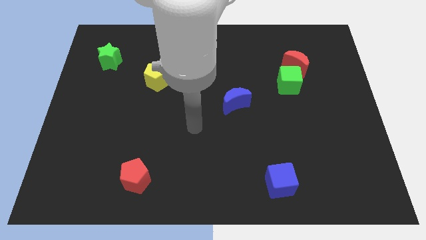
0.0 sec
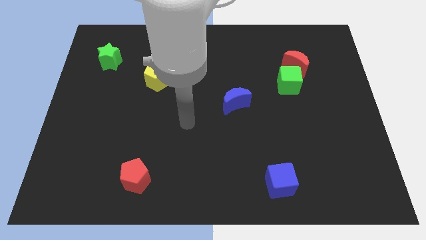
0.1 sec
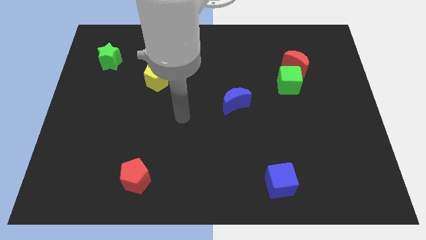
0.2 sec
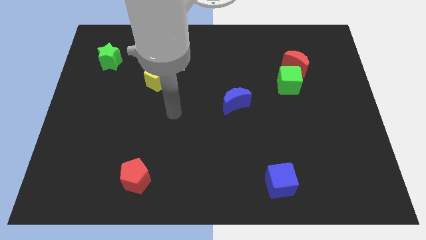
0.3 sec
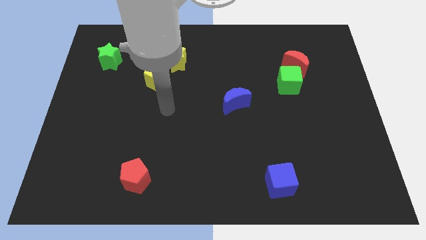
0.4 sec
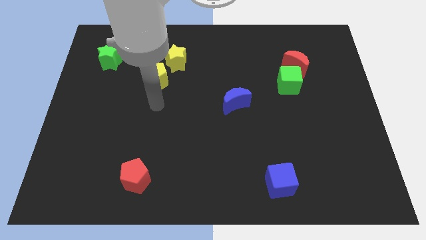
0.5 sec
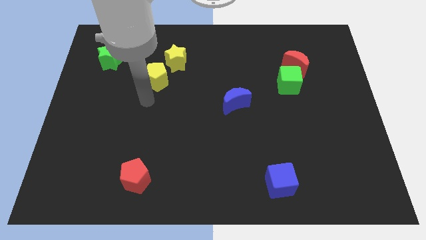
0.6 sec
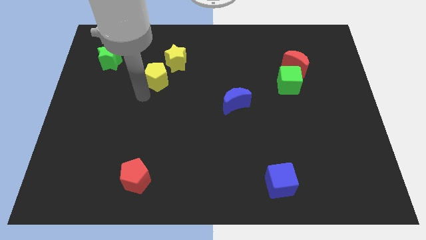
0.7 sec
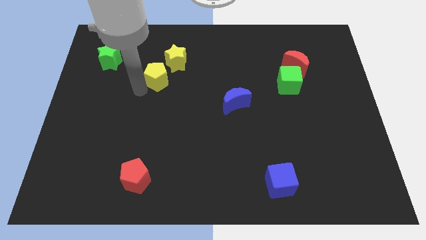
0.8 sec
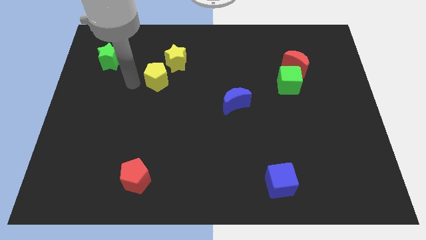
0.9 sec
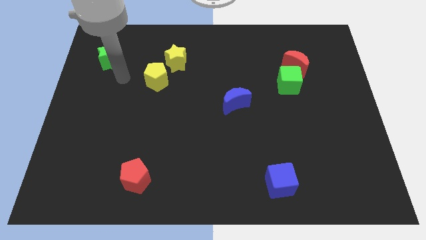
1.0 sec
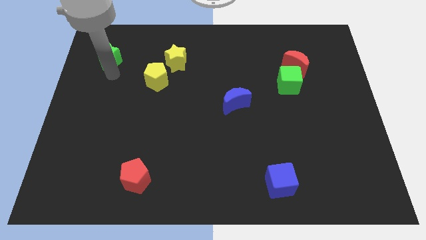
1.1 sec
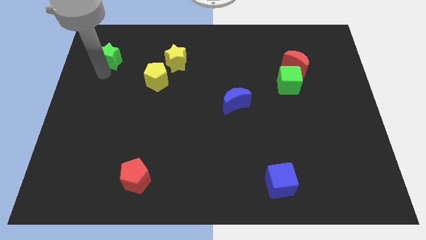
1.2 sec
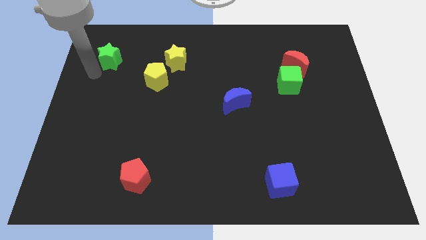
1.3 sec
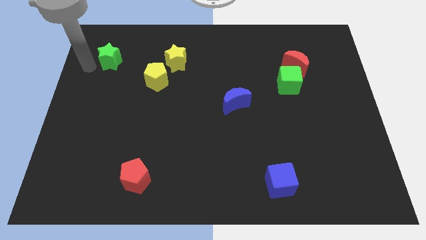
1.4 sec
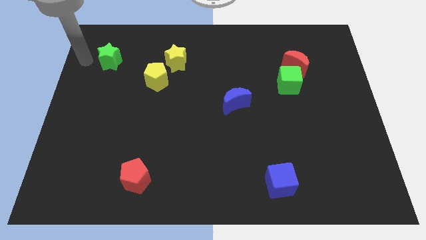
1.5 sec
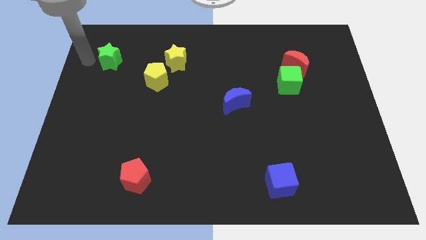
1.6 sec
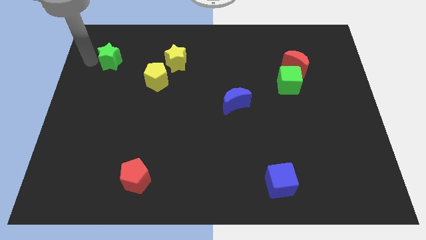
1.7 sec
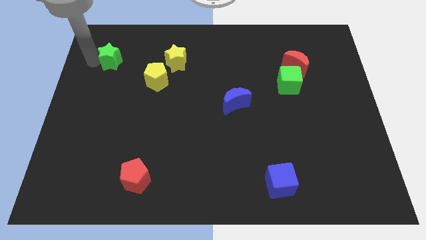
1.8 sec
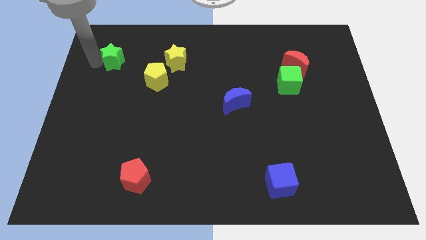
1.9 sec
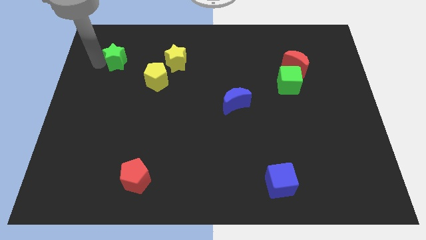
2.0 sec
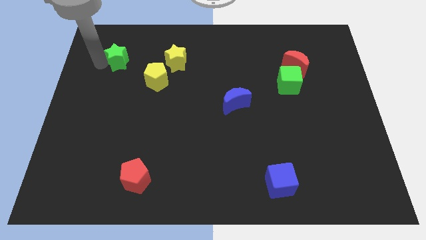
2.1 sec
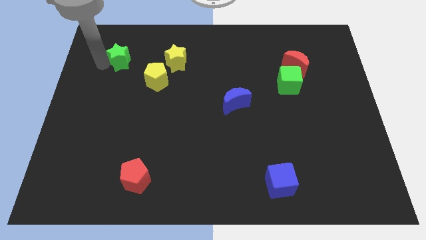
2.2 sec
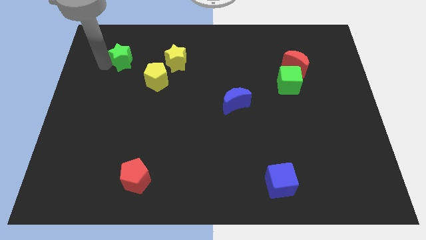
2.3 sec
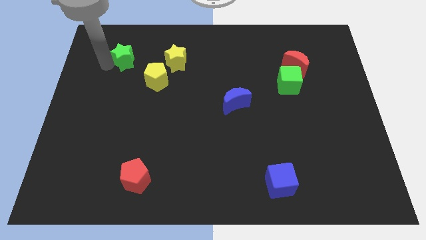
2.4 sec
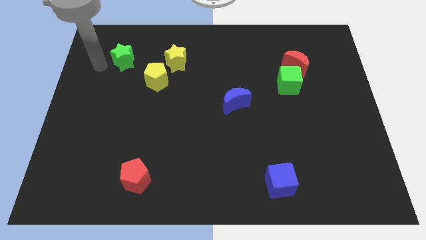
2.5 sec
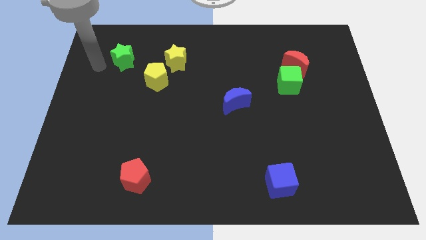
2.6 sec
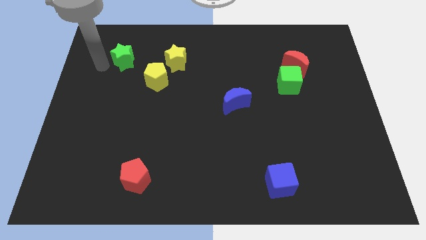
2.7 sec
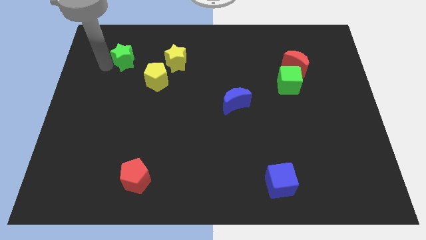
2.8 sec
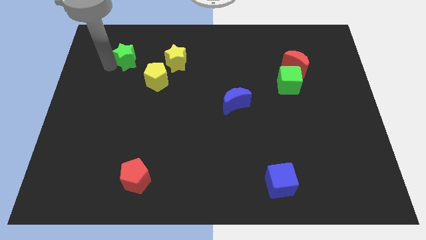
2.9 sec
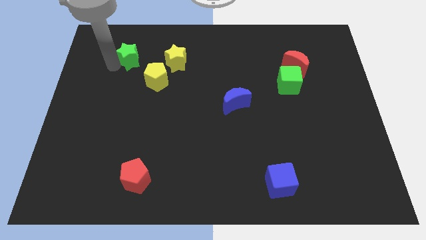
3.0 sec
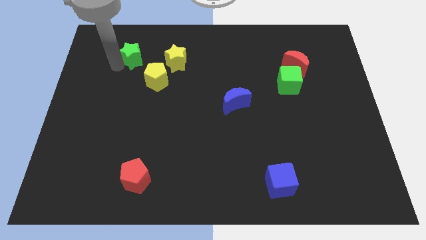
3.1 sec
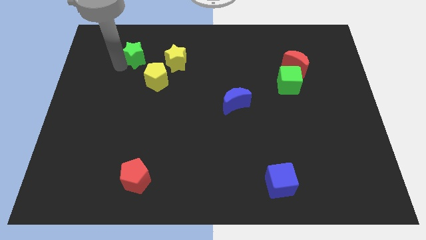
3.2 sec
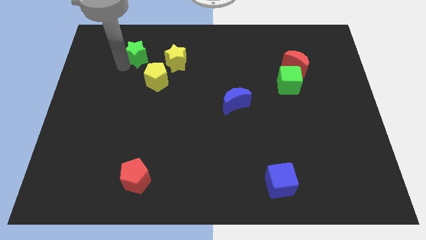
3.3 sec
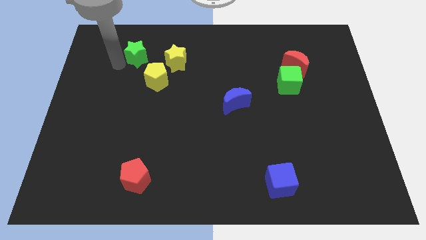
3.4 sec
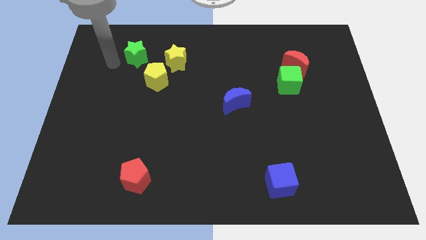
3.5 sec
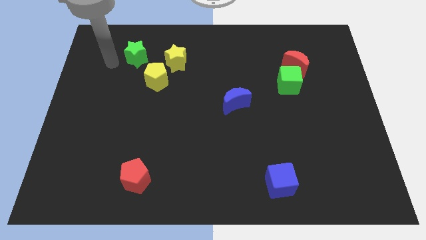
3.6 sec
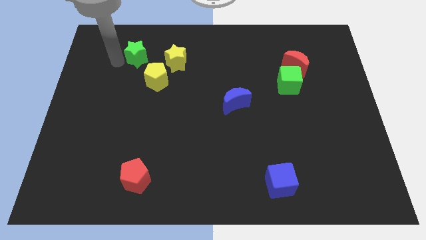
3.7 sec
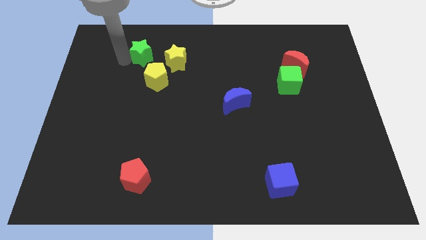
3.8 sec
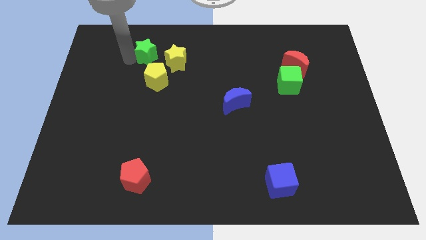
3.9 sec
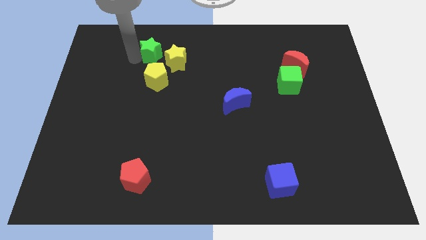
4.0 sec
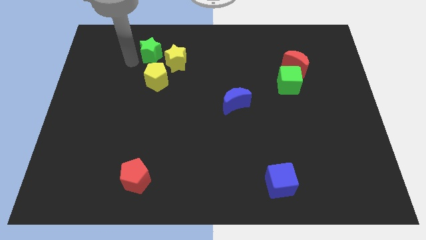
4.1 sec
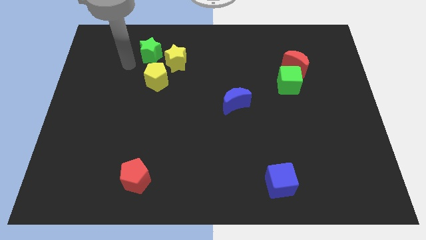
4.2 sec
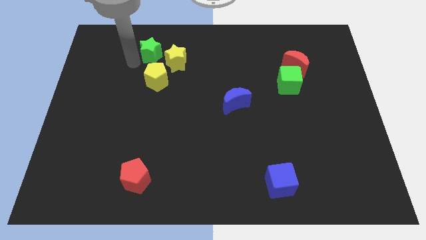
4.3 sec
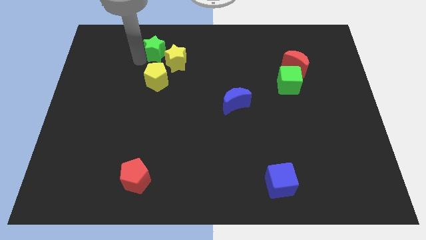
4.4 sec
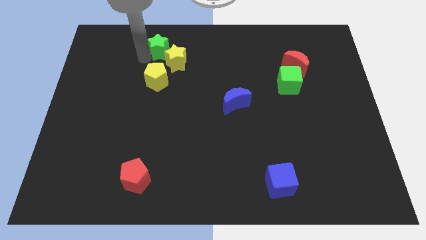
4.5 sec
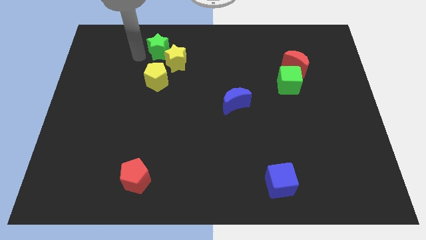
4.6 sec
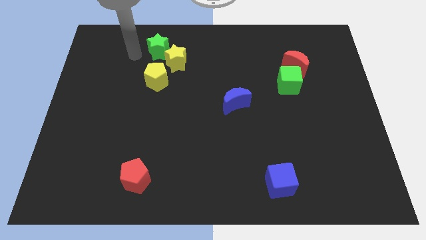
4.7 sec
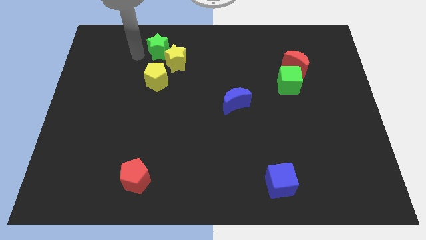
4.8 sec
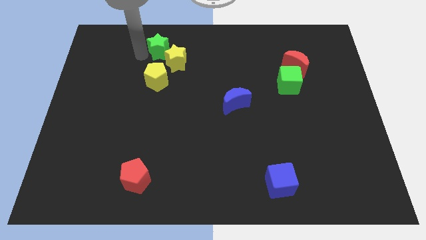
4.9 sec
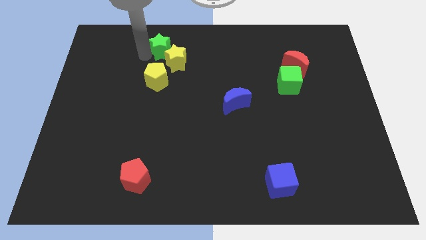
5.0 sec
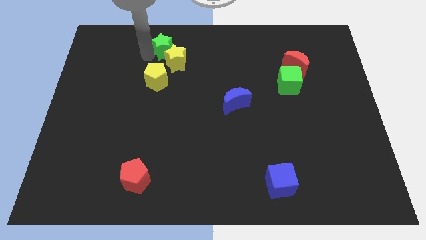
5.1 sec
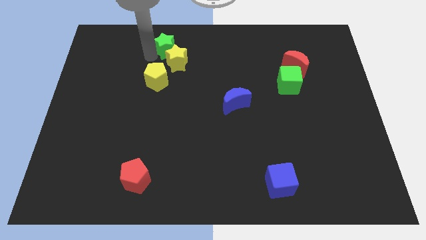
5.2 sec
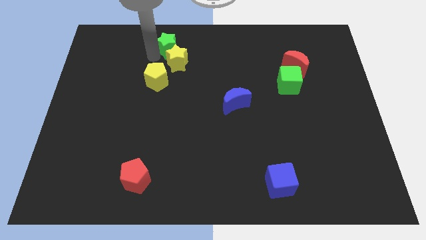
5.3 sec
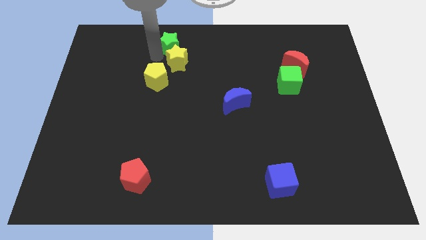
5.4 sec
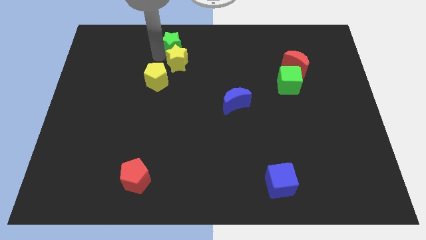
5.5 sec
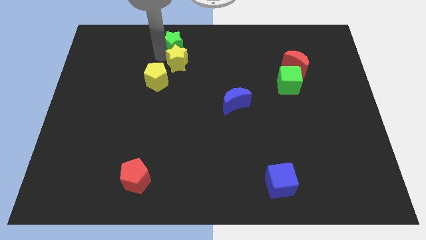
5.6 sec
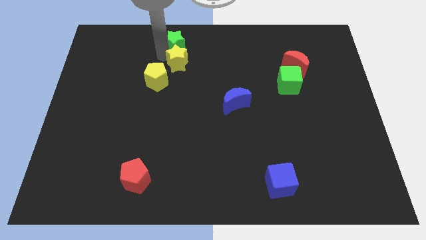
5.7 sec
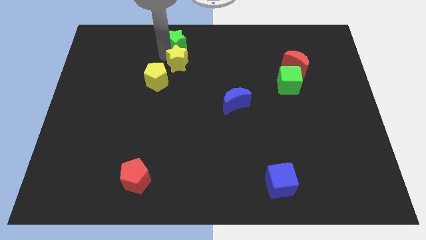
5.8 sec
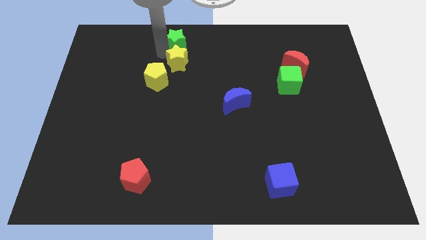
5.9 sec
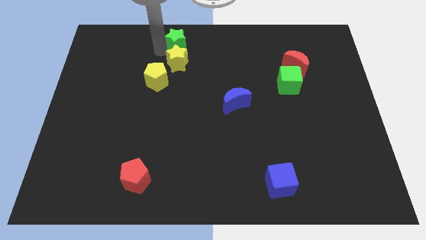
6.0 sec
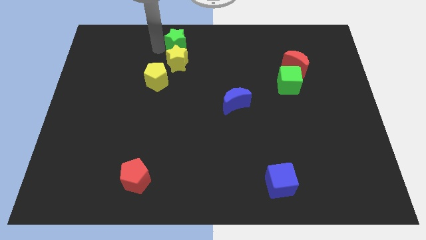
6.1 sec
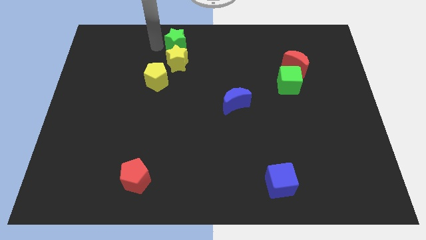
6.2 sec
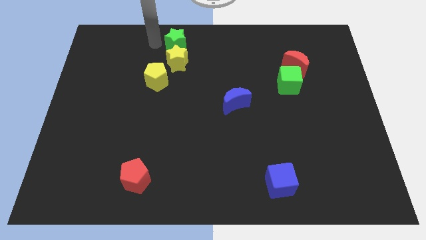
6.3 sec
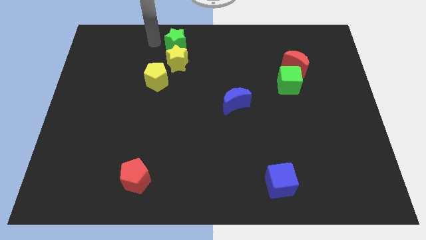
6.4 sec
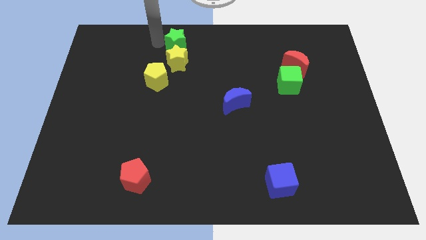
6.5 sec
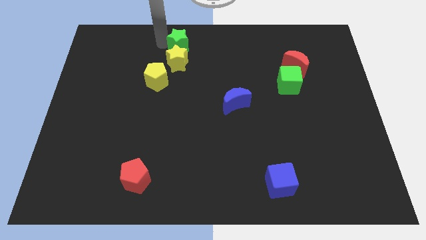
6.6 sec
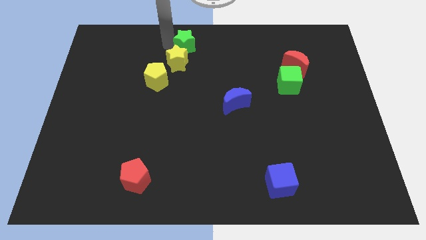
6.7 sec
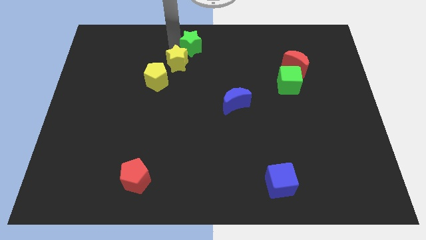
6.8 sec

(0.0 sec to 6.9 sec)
slide the green star right

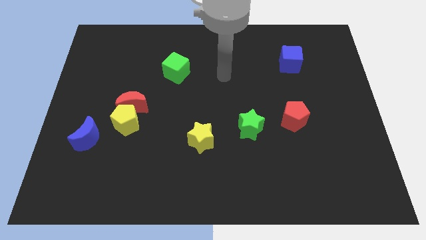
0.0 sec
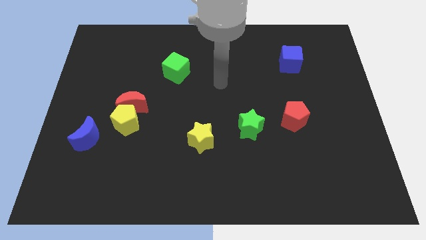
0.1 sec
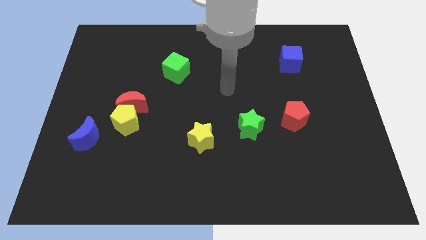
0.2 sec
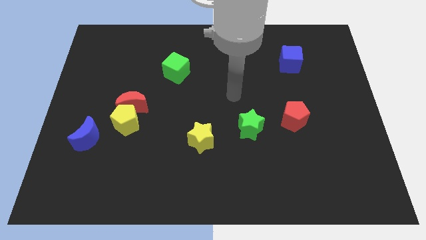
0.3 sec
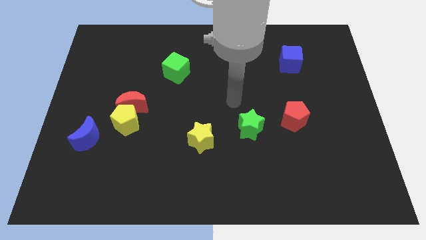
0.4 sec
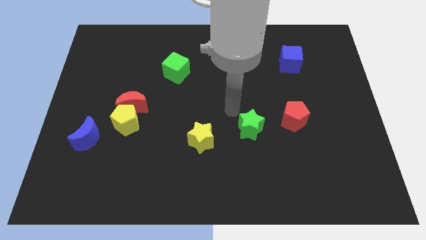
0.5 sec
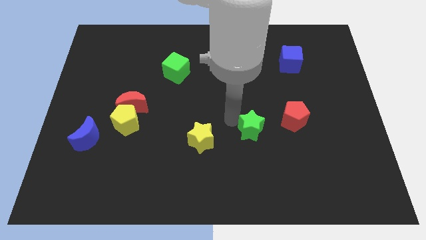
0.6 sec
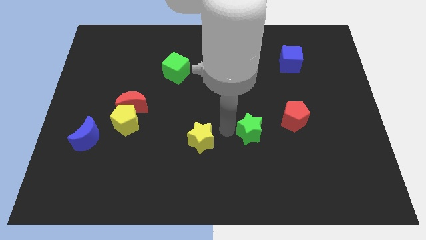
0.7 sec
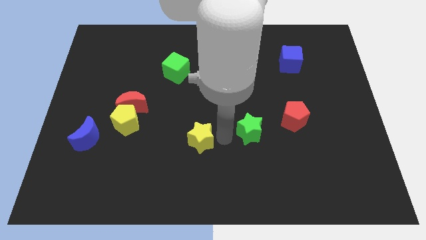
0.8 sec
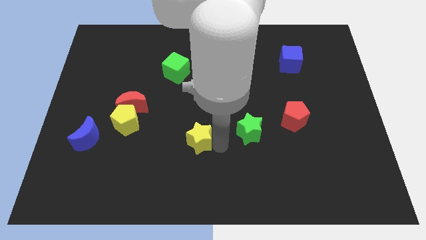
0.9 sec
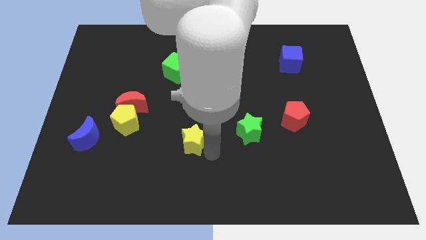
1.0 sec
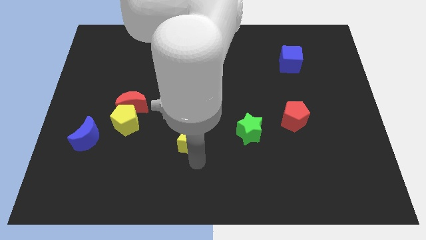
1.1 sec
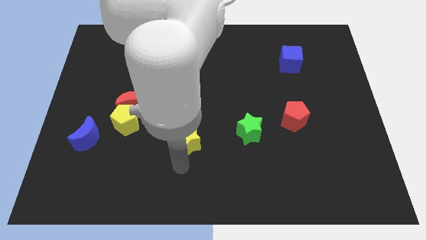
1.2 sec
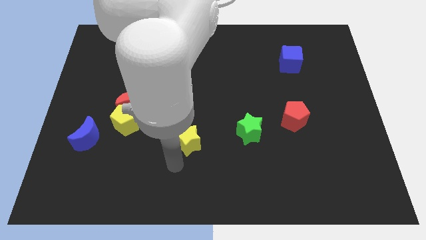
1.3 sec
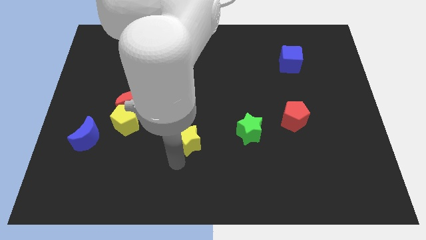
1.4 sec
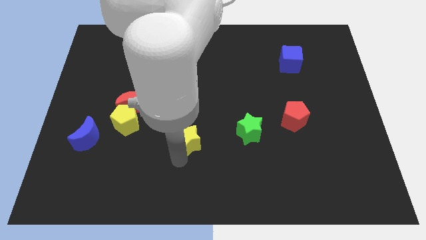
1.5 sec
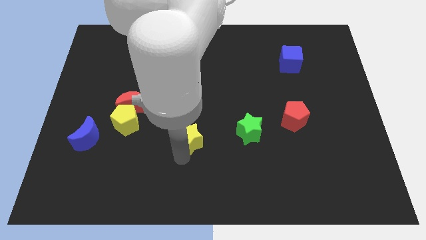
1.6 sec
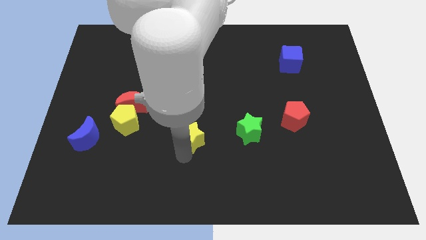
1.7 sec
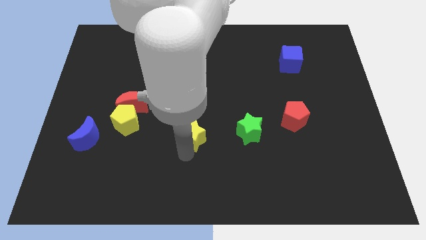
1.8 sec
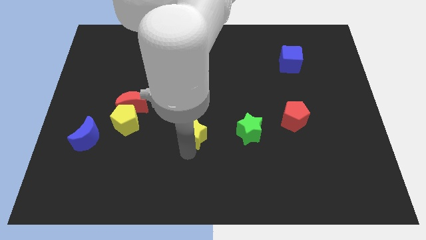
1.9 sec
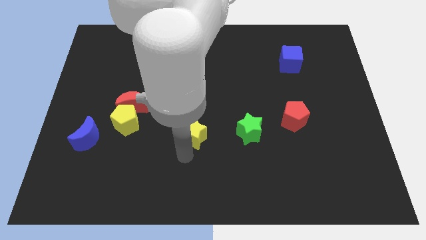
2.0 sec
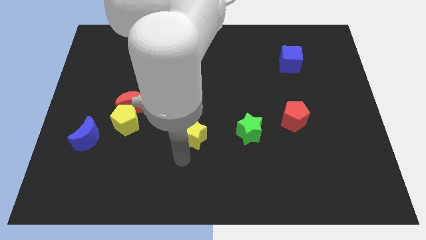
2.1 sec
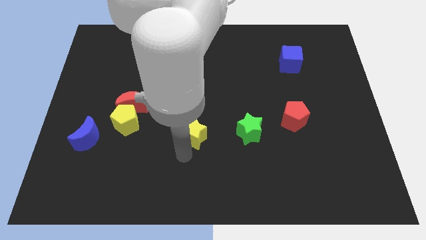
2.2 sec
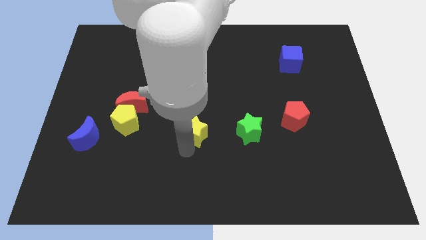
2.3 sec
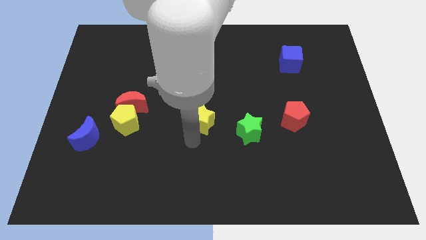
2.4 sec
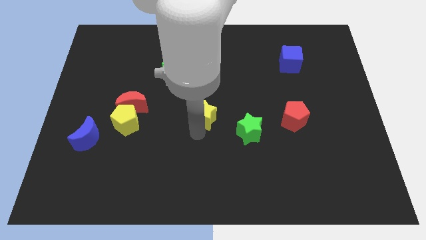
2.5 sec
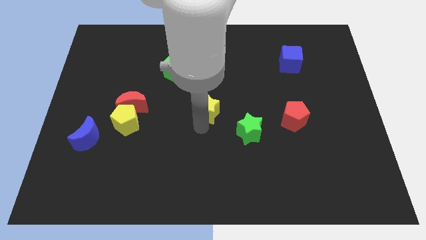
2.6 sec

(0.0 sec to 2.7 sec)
push the yellow star a little upwards
